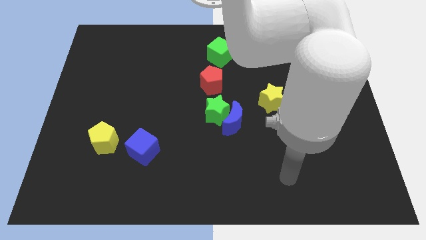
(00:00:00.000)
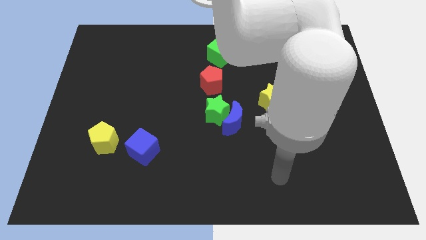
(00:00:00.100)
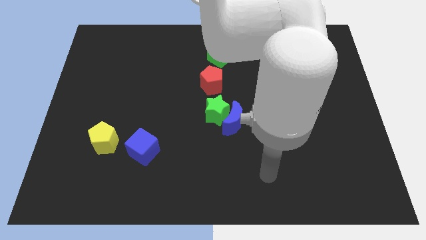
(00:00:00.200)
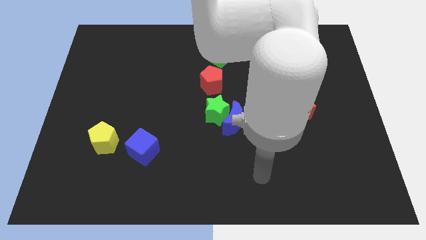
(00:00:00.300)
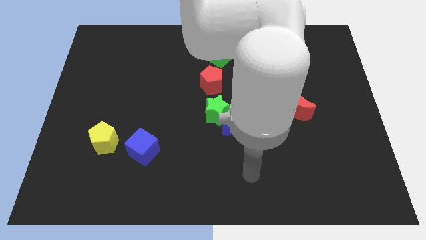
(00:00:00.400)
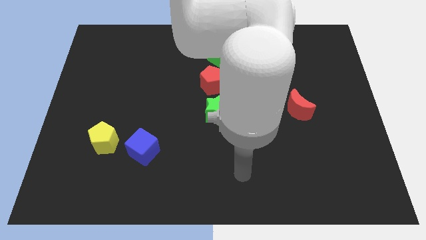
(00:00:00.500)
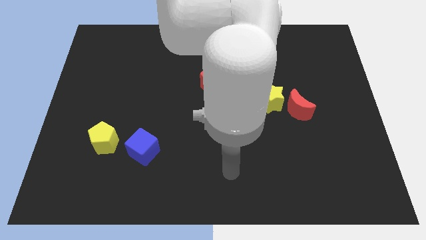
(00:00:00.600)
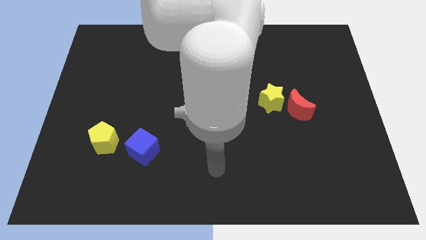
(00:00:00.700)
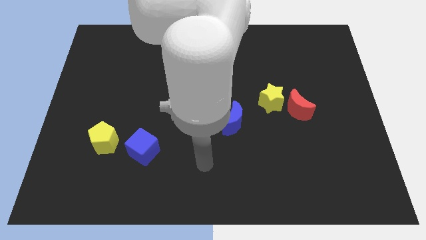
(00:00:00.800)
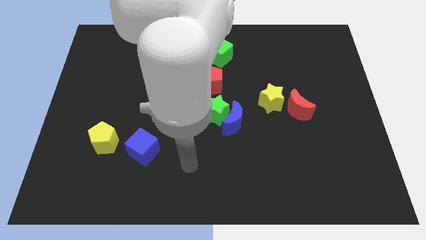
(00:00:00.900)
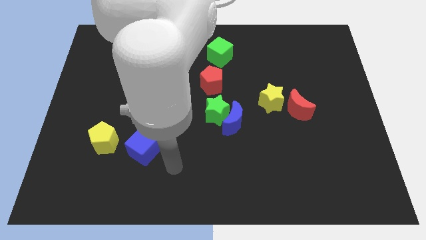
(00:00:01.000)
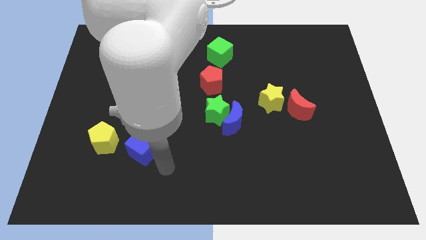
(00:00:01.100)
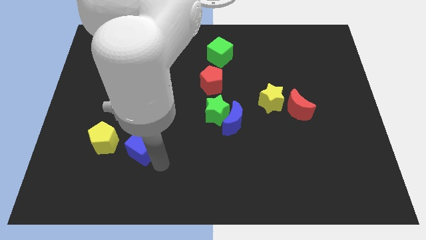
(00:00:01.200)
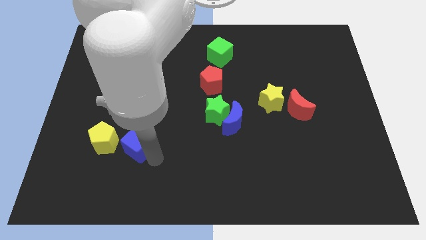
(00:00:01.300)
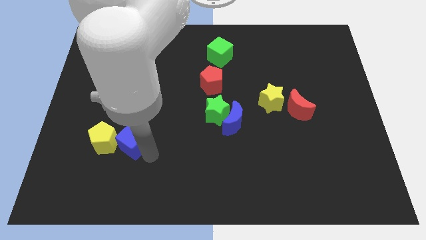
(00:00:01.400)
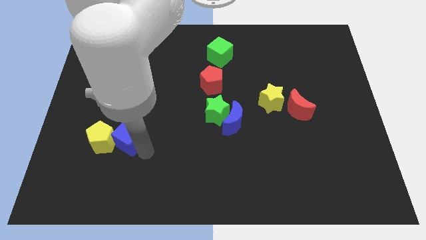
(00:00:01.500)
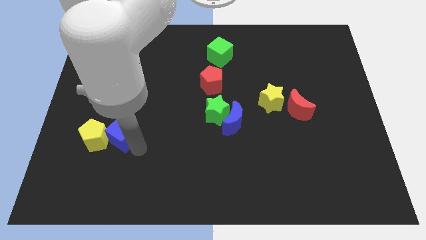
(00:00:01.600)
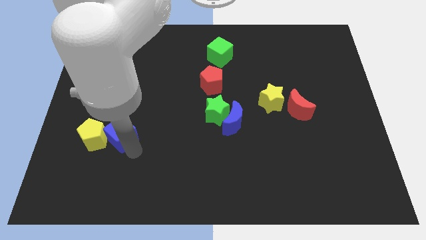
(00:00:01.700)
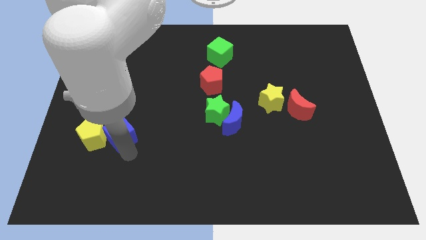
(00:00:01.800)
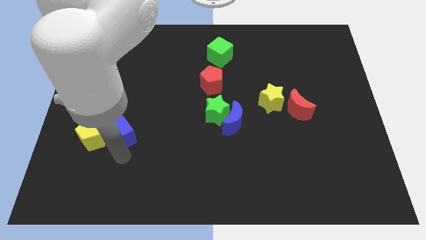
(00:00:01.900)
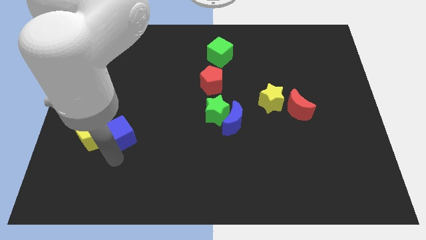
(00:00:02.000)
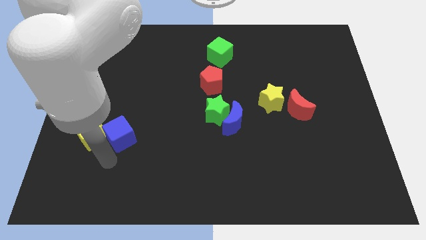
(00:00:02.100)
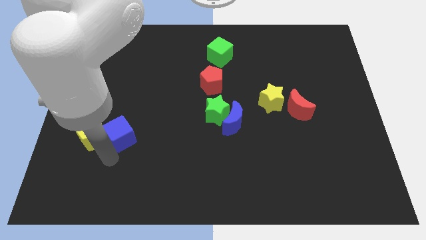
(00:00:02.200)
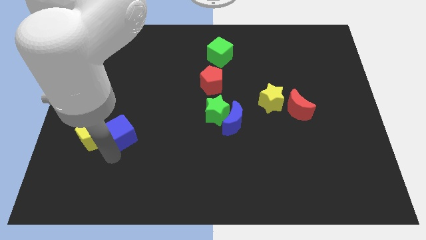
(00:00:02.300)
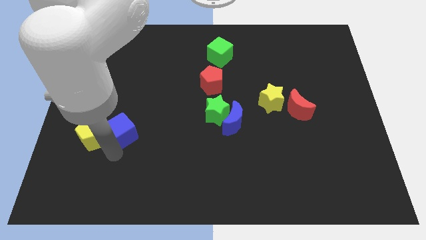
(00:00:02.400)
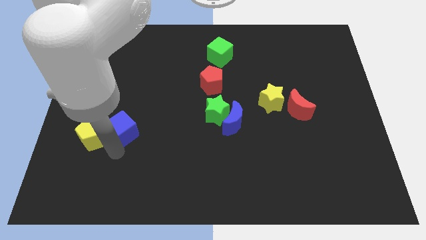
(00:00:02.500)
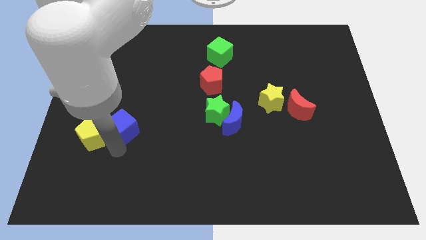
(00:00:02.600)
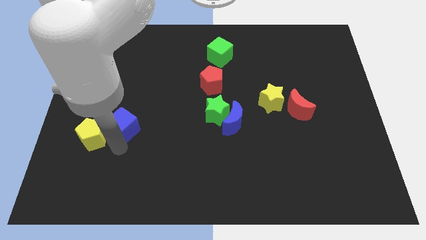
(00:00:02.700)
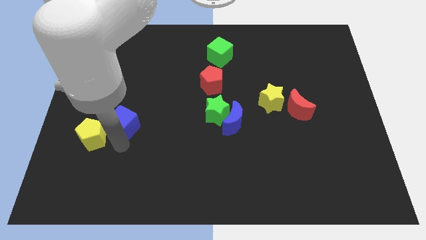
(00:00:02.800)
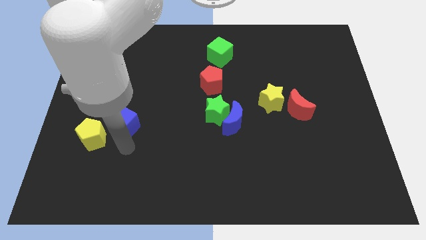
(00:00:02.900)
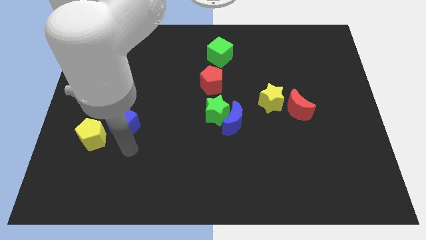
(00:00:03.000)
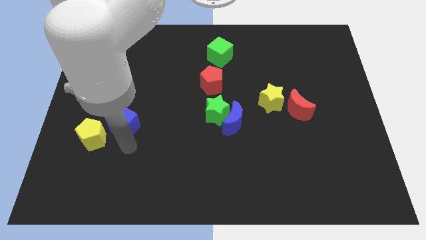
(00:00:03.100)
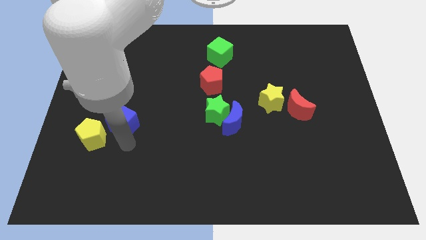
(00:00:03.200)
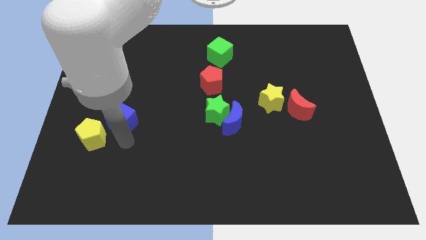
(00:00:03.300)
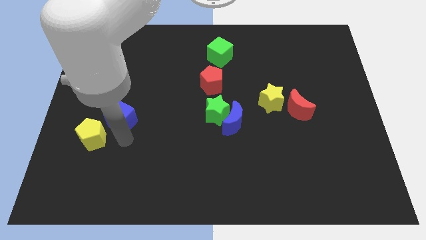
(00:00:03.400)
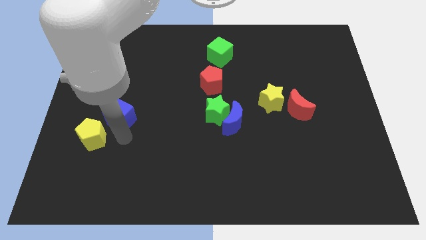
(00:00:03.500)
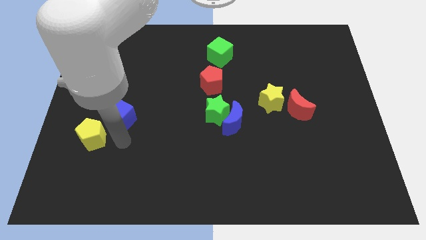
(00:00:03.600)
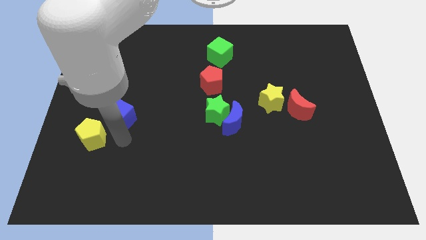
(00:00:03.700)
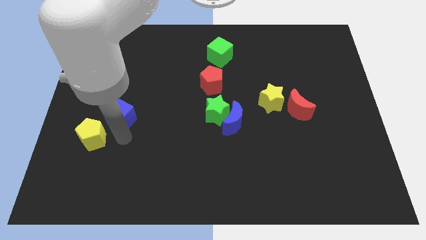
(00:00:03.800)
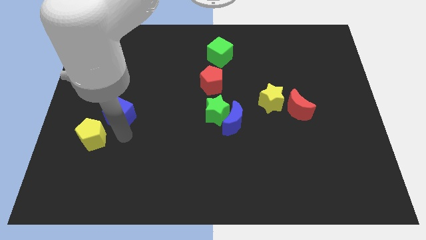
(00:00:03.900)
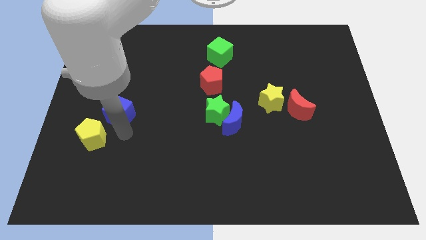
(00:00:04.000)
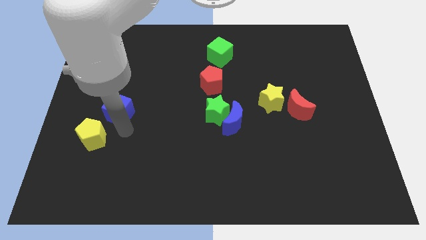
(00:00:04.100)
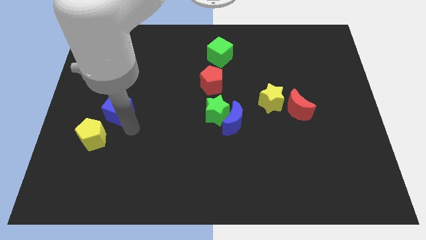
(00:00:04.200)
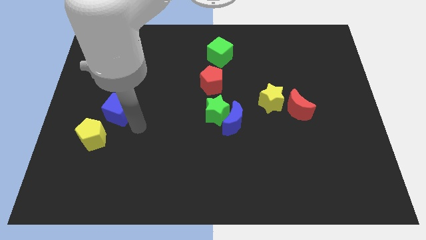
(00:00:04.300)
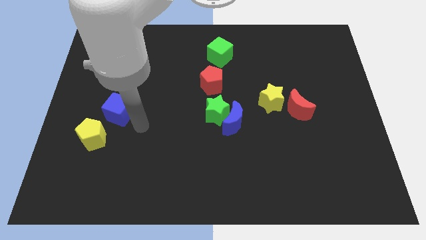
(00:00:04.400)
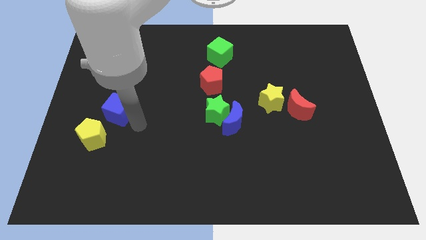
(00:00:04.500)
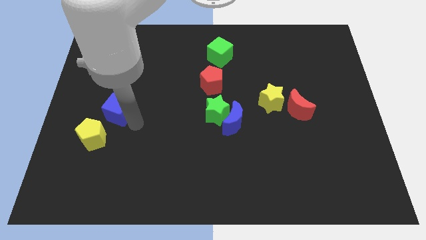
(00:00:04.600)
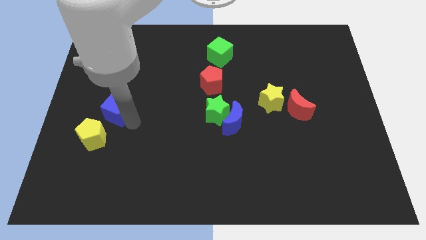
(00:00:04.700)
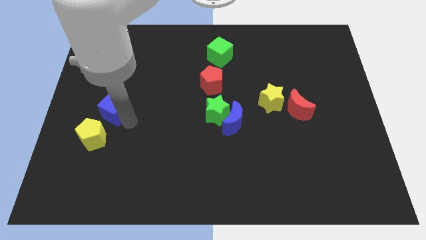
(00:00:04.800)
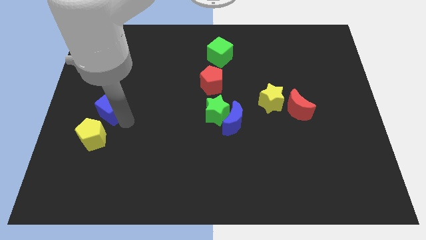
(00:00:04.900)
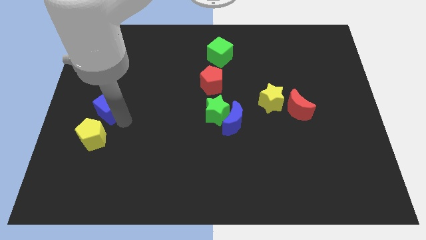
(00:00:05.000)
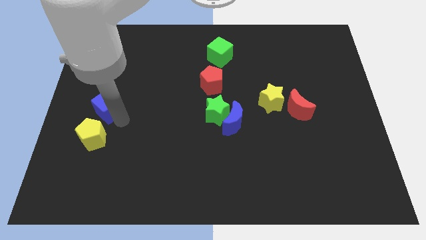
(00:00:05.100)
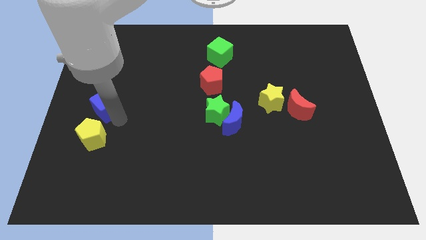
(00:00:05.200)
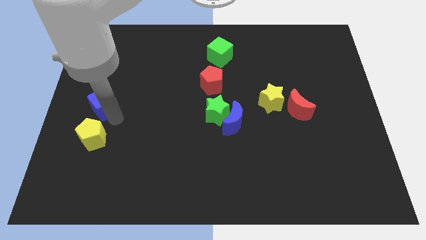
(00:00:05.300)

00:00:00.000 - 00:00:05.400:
move the blue cube to the left side

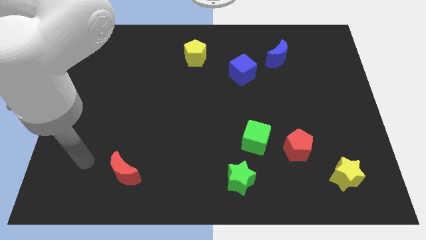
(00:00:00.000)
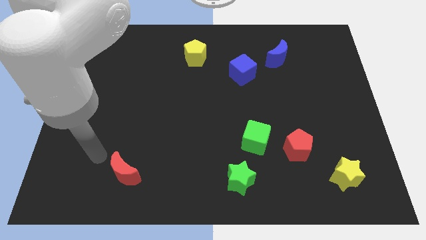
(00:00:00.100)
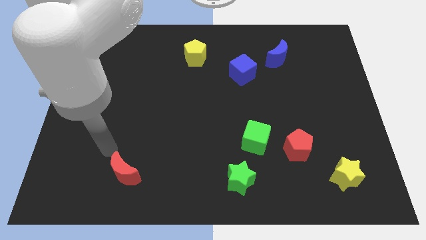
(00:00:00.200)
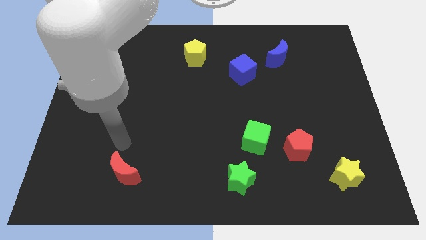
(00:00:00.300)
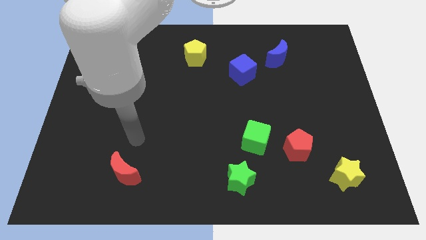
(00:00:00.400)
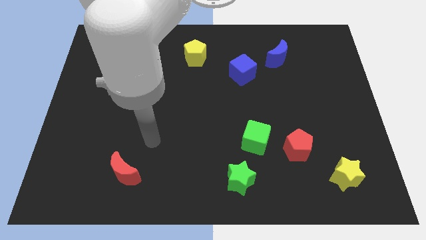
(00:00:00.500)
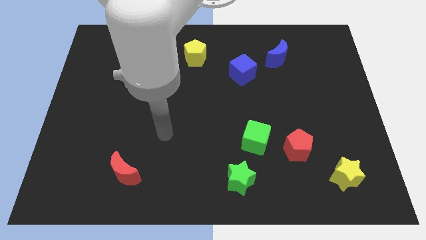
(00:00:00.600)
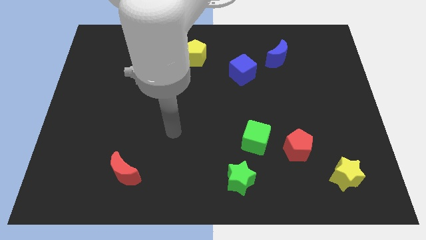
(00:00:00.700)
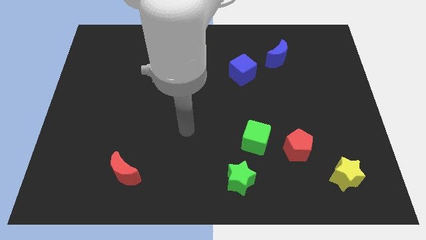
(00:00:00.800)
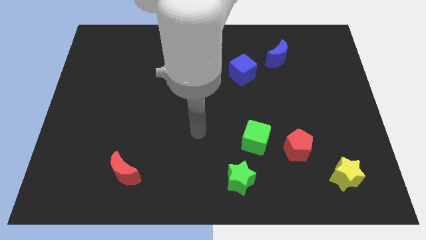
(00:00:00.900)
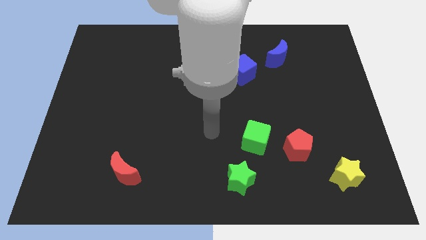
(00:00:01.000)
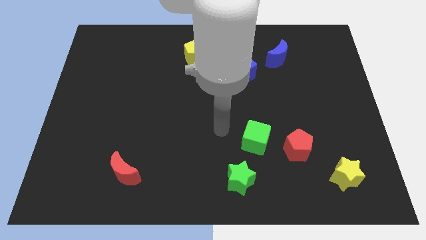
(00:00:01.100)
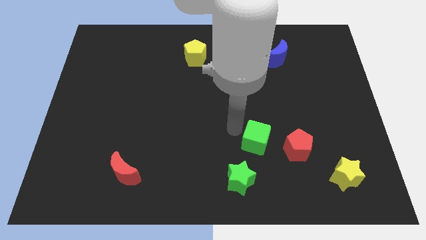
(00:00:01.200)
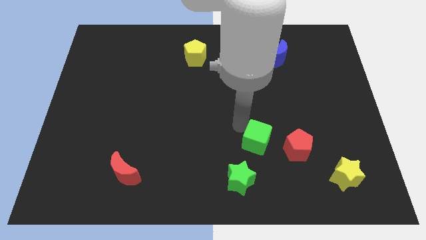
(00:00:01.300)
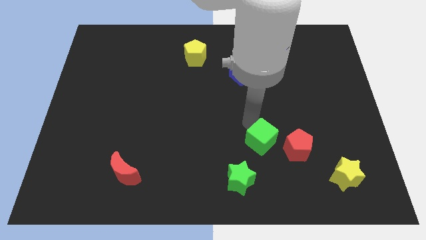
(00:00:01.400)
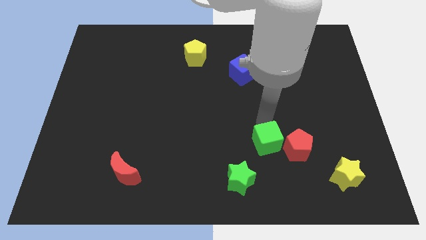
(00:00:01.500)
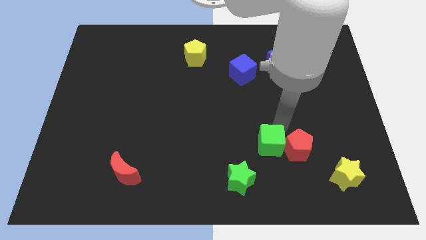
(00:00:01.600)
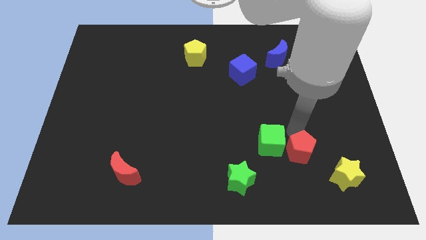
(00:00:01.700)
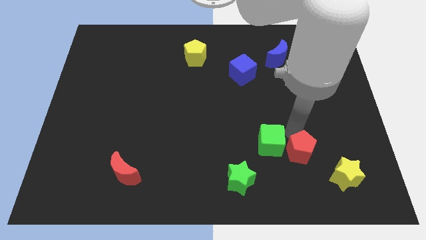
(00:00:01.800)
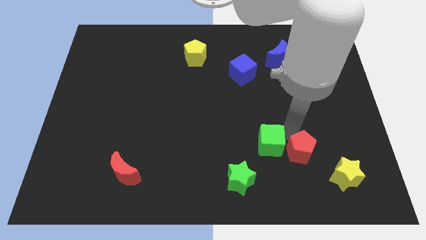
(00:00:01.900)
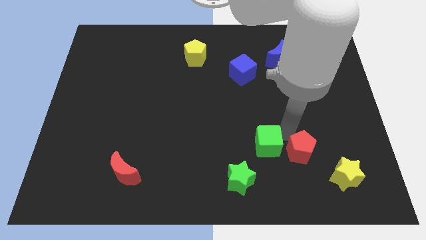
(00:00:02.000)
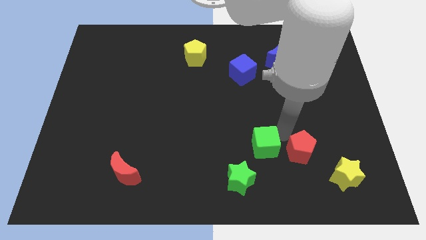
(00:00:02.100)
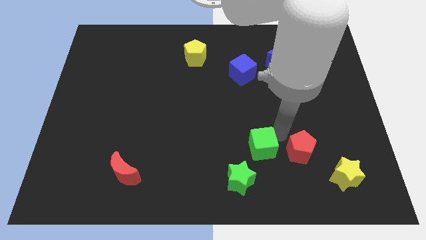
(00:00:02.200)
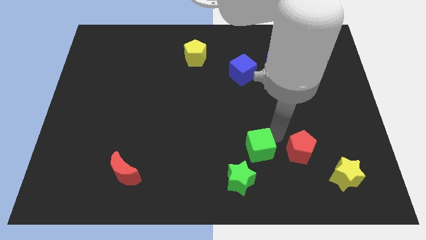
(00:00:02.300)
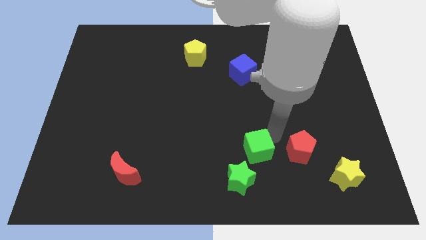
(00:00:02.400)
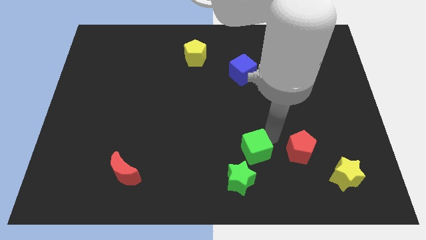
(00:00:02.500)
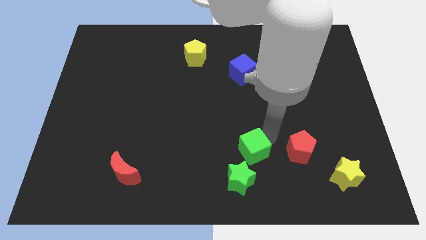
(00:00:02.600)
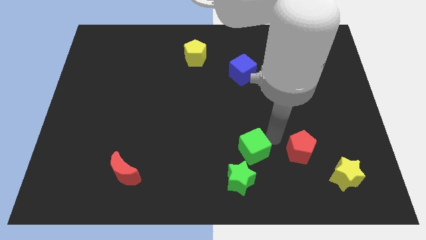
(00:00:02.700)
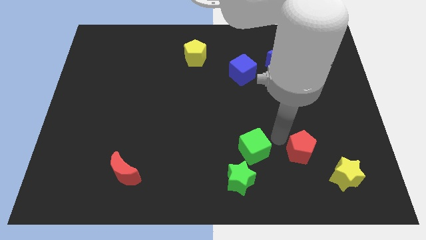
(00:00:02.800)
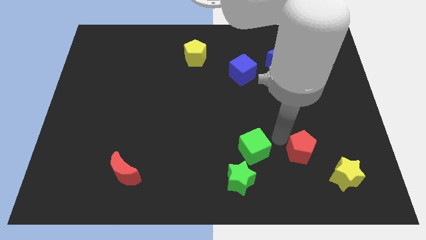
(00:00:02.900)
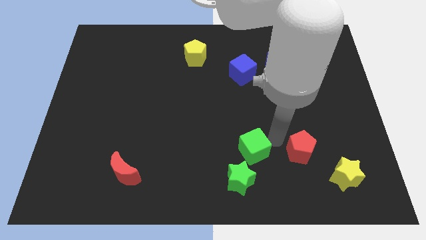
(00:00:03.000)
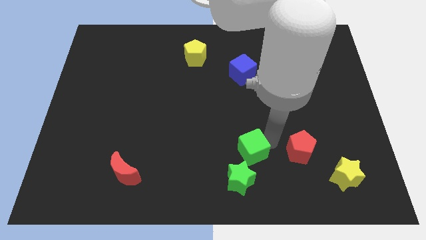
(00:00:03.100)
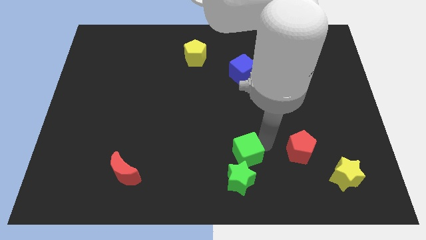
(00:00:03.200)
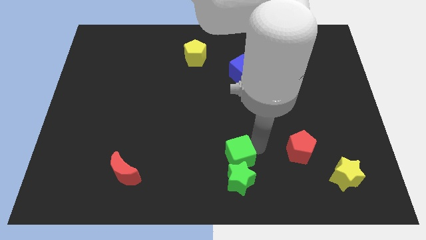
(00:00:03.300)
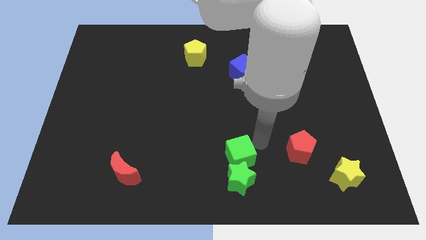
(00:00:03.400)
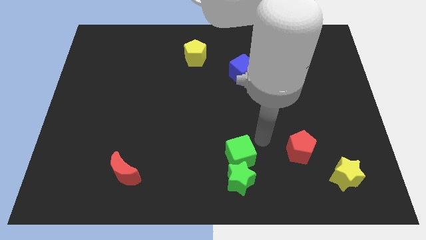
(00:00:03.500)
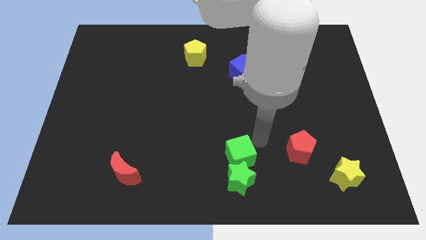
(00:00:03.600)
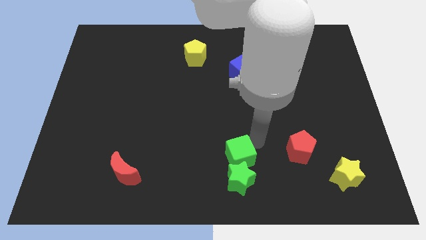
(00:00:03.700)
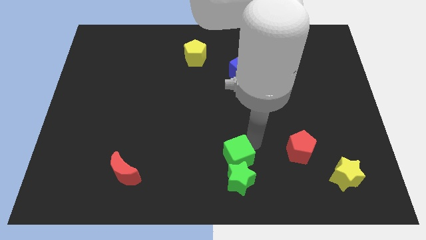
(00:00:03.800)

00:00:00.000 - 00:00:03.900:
put the green cube to the bottom side
